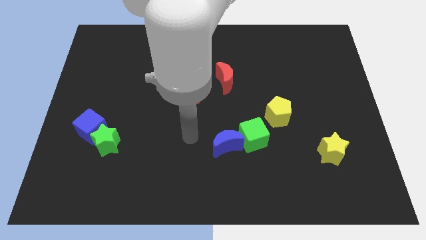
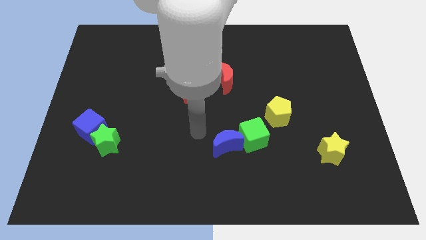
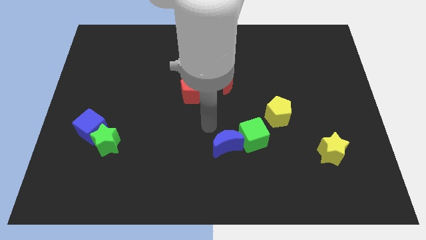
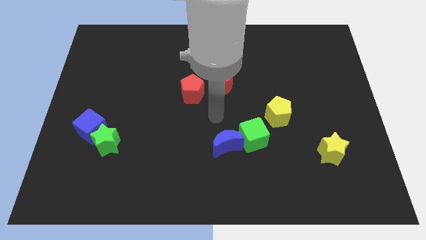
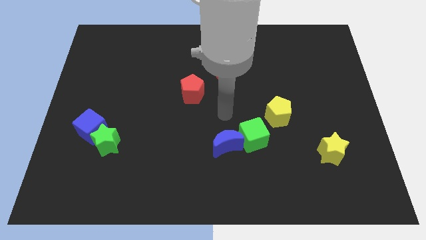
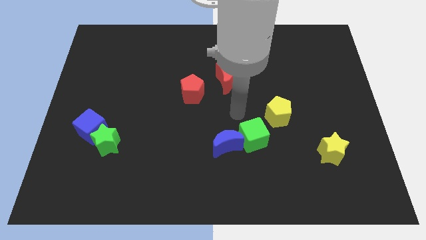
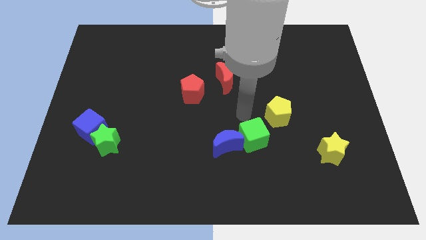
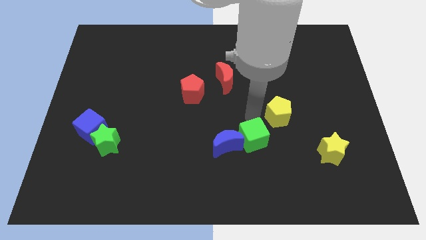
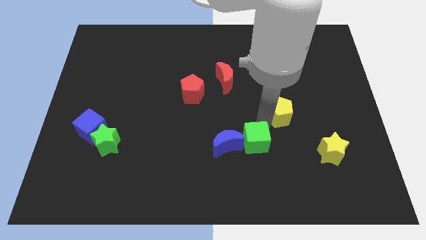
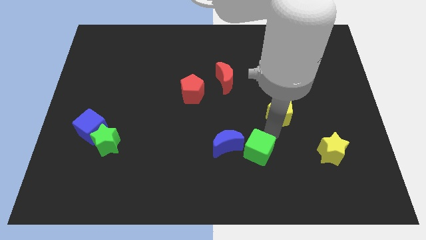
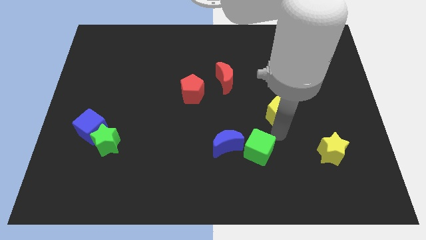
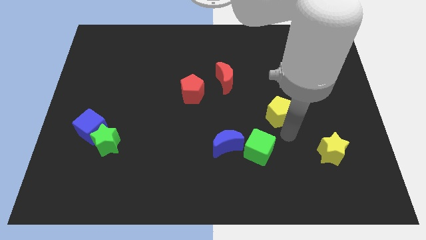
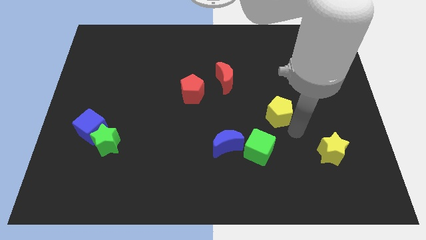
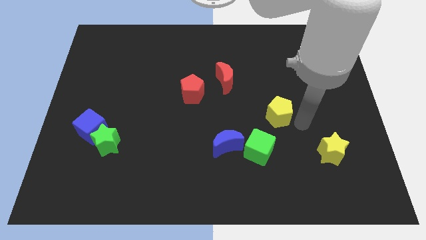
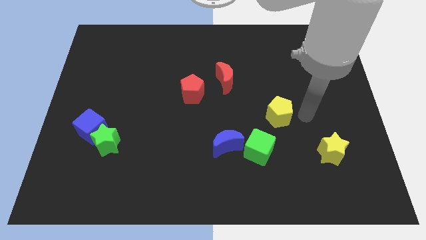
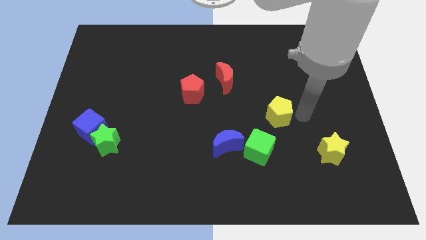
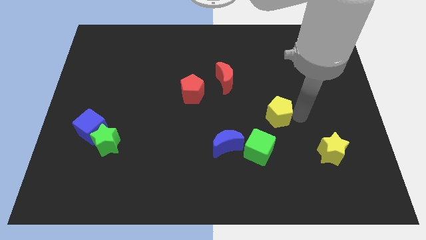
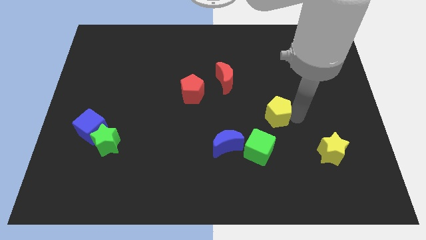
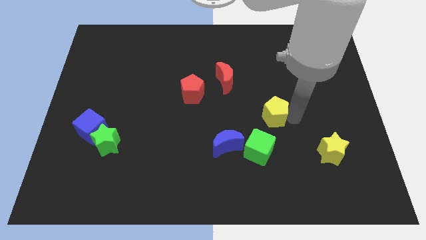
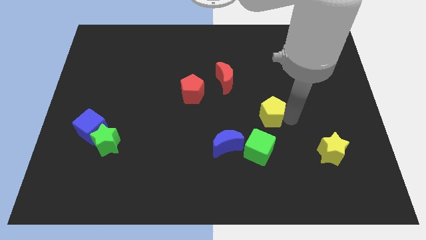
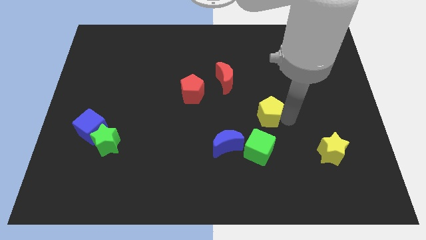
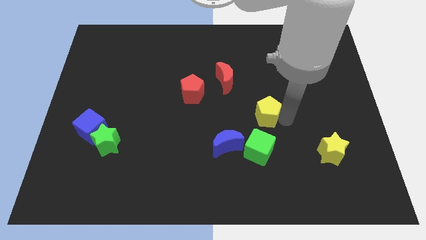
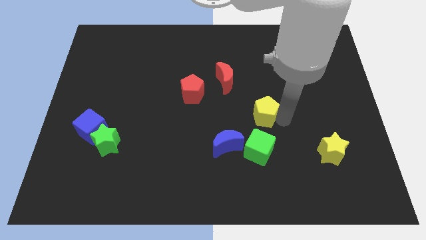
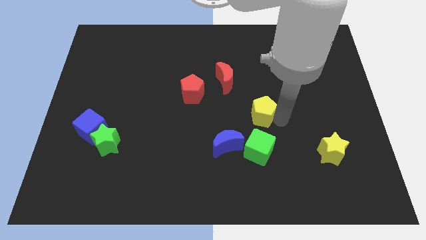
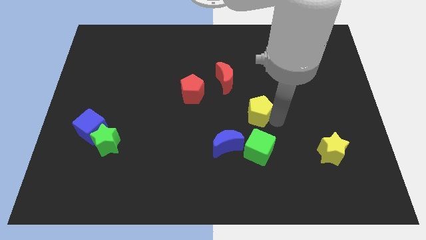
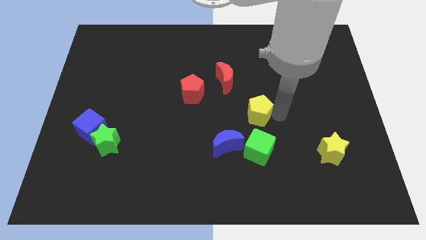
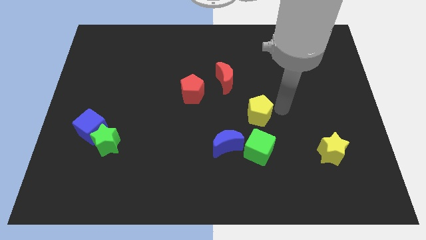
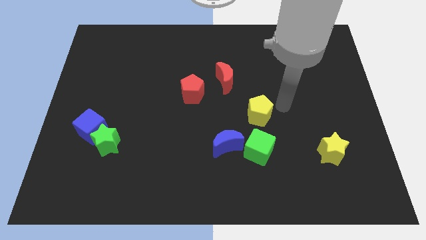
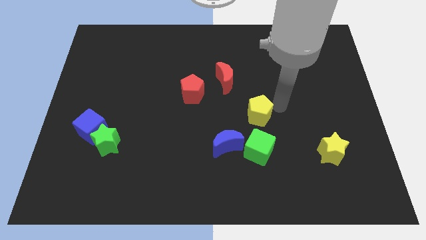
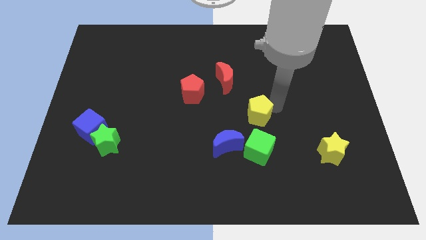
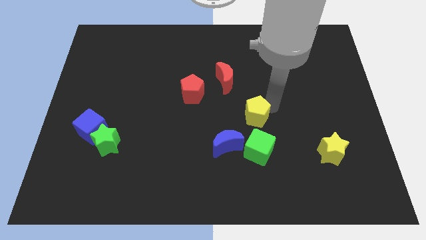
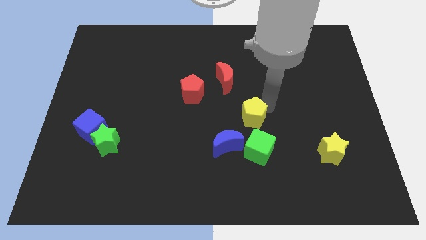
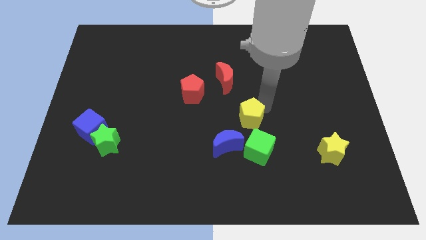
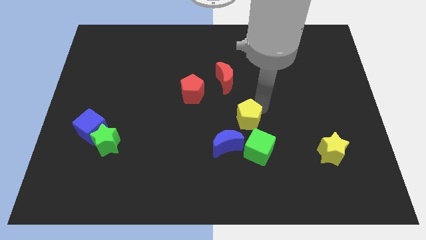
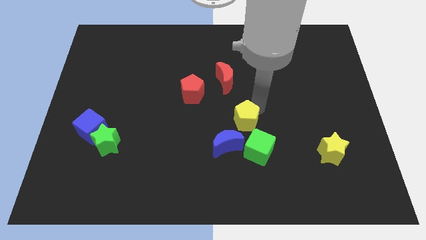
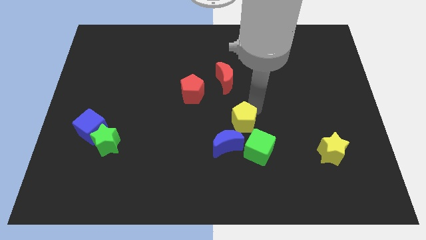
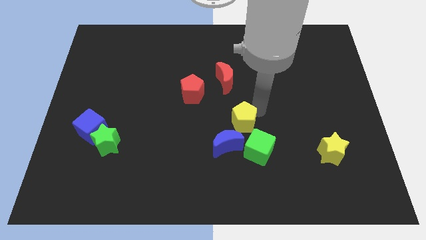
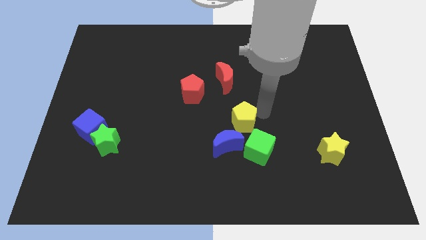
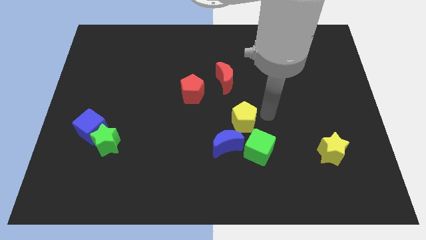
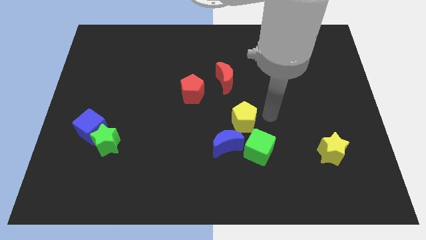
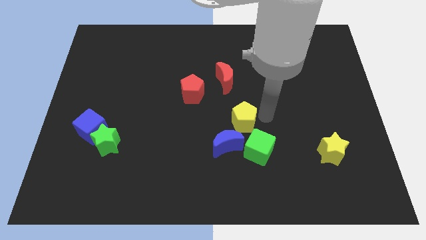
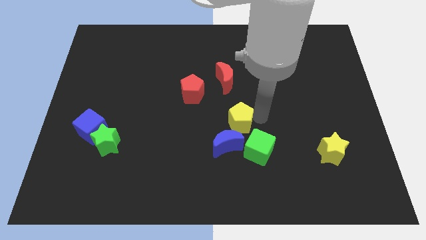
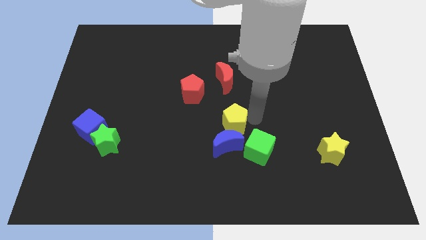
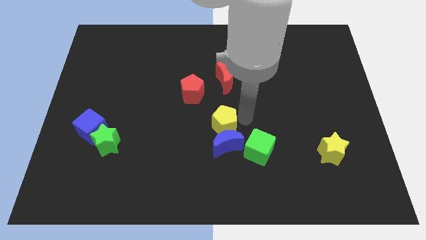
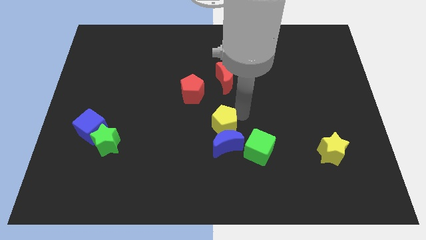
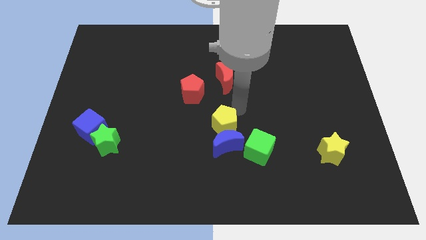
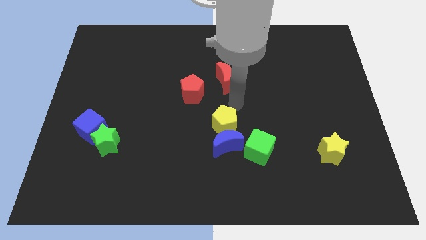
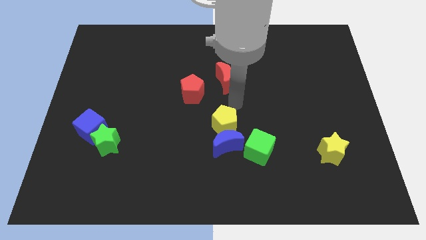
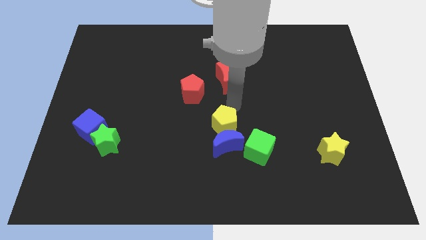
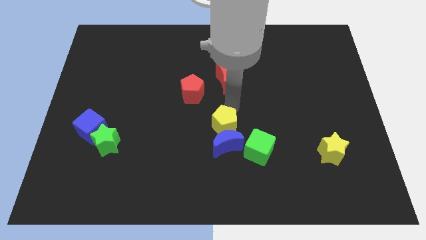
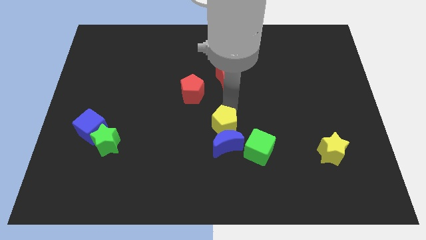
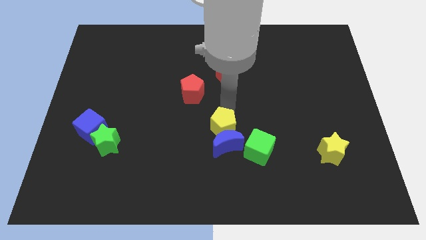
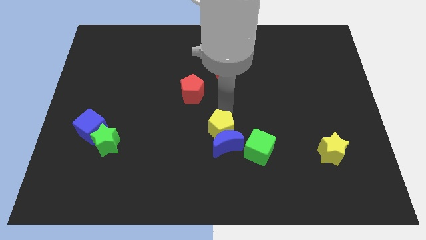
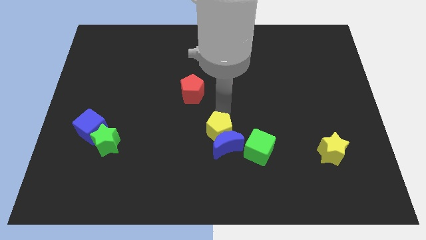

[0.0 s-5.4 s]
move the yellow pentagon just left of the green cube

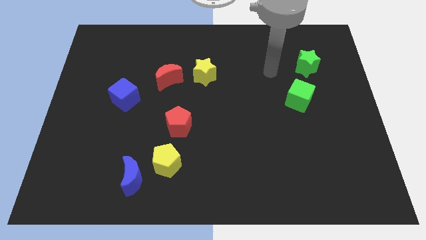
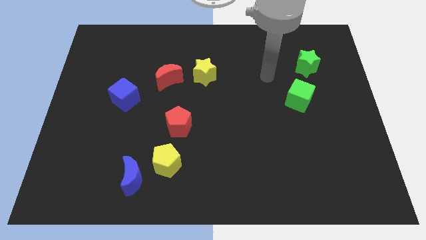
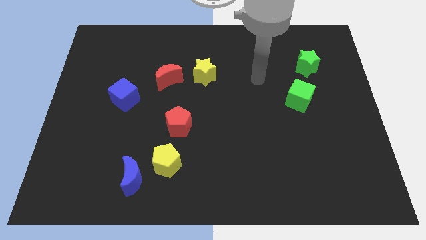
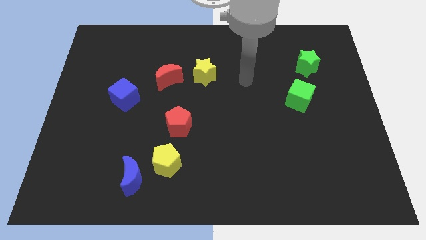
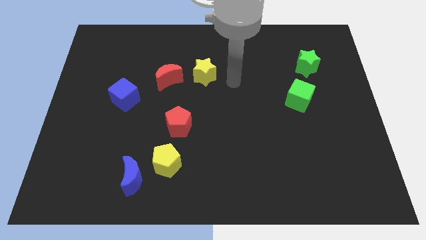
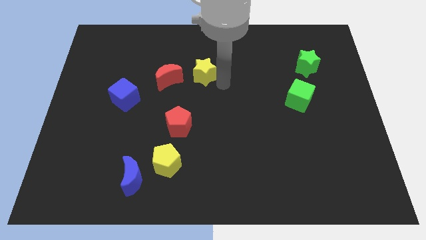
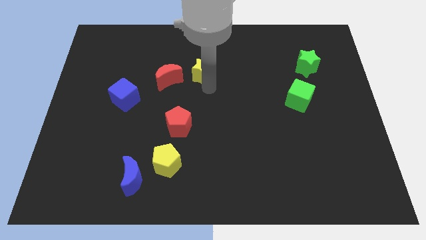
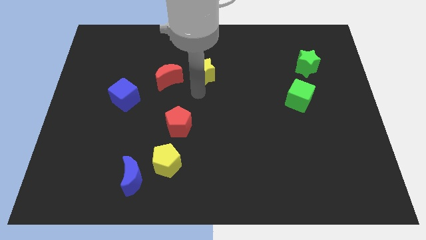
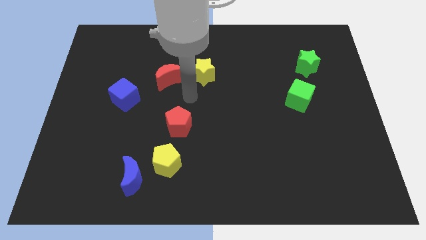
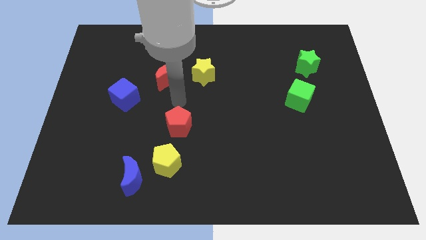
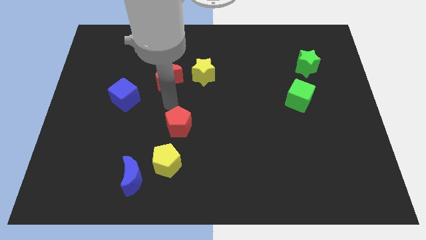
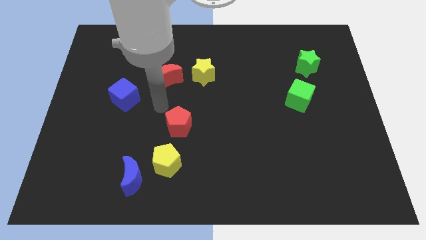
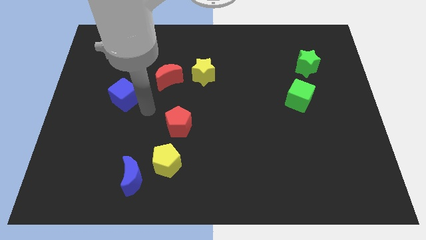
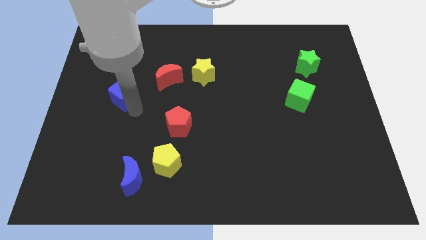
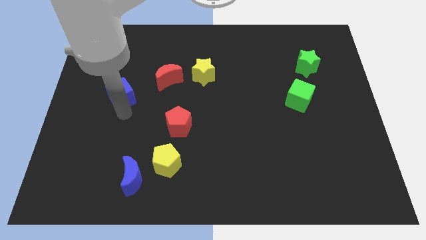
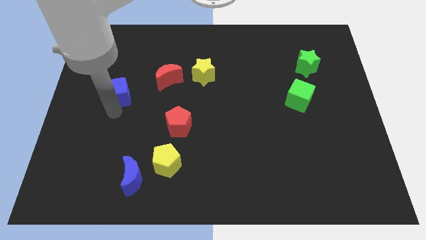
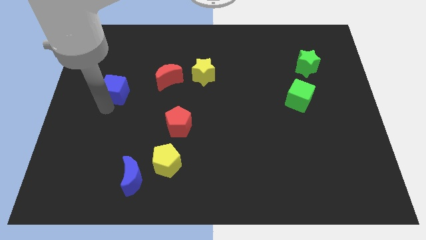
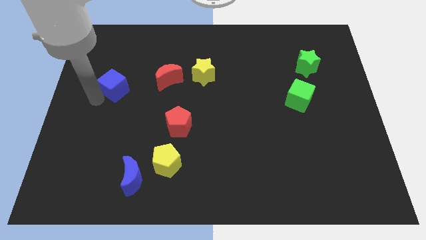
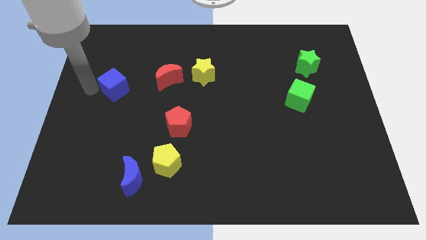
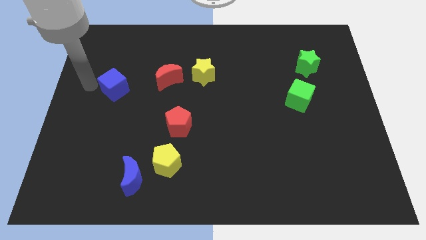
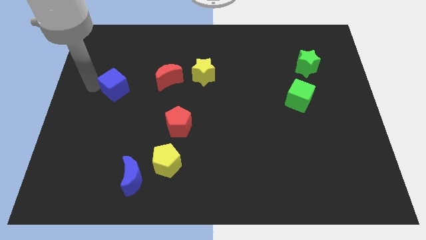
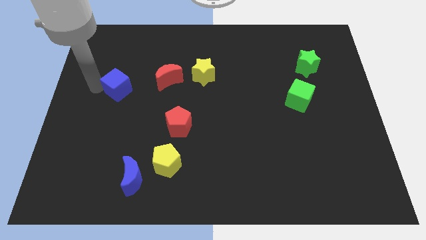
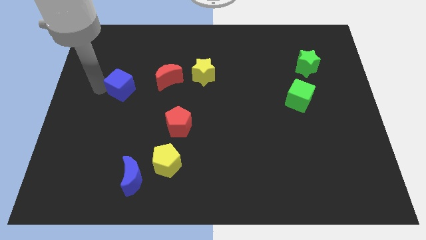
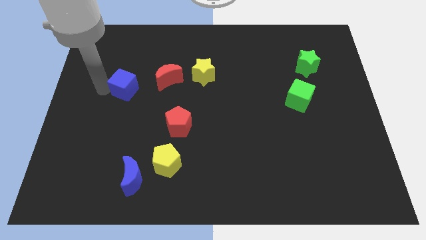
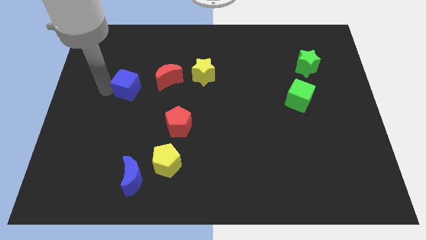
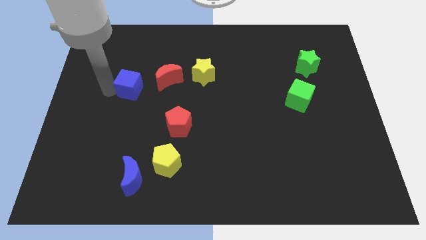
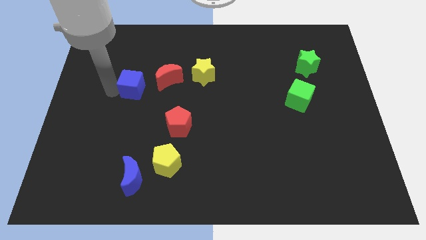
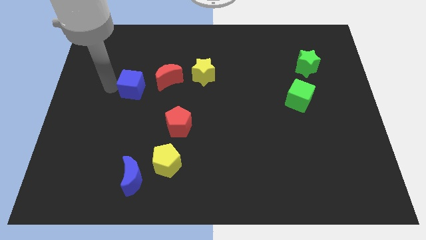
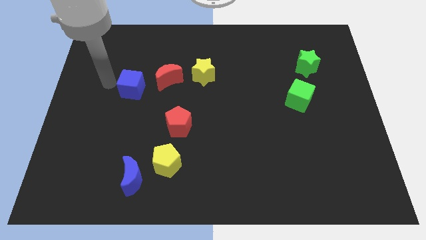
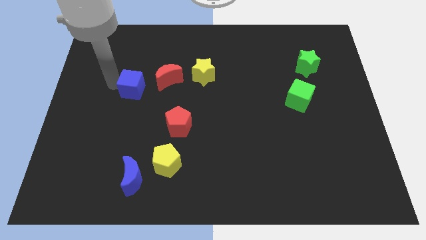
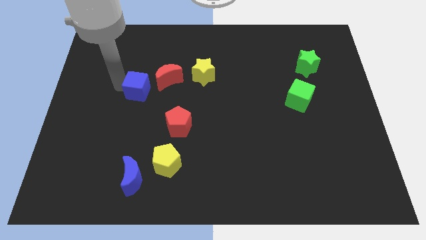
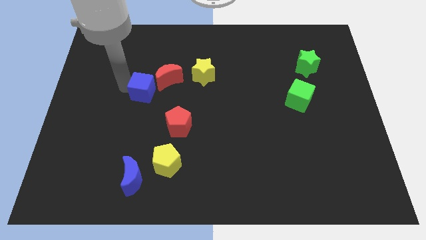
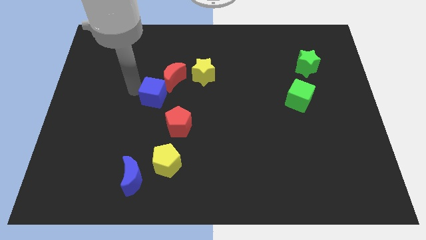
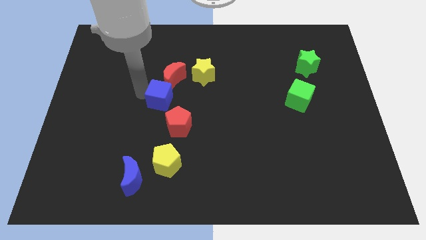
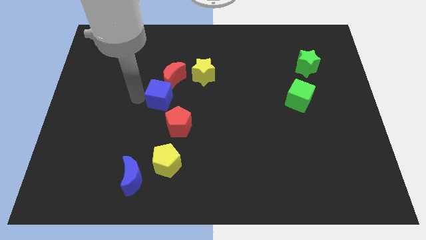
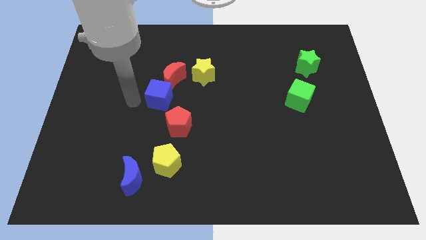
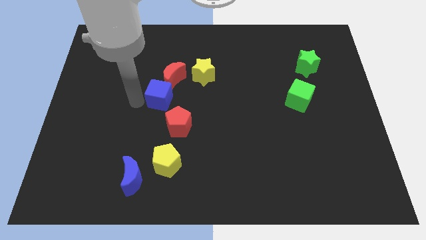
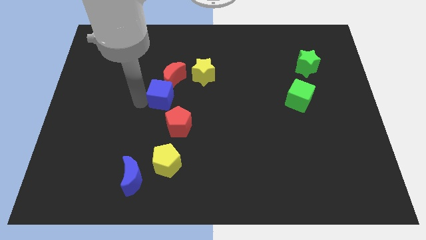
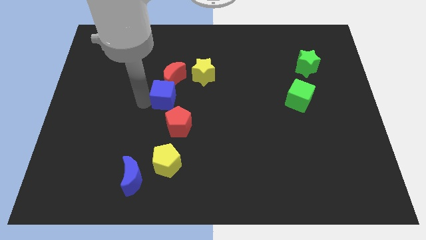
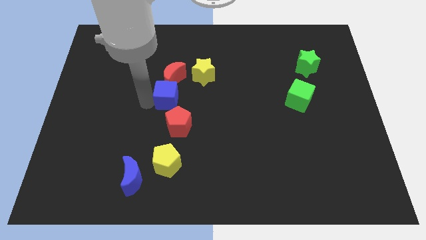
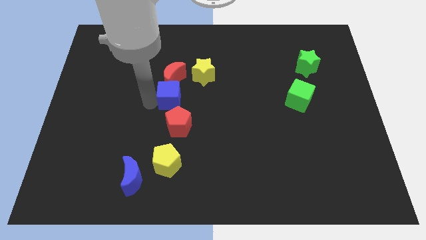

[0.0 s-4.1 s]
slide the blue cube to the bottom right of the red moon
